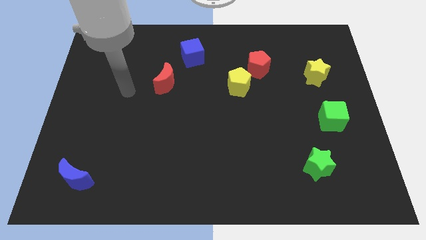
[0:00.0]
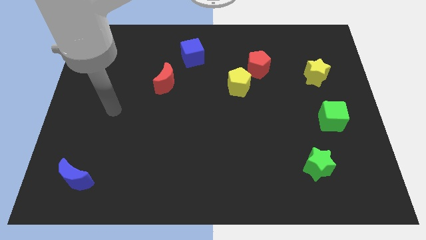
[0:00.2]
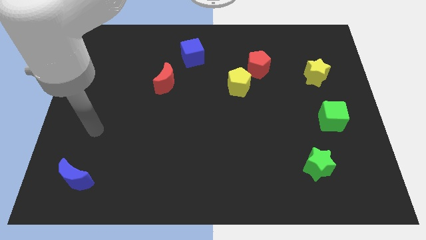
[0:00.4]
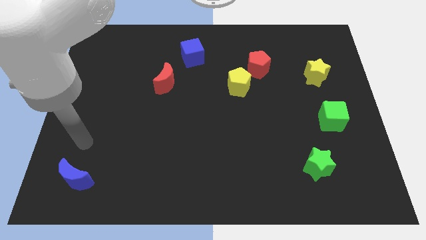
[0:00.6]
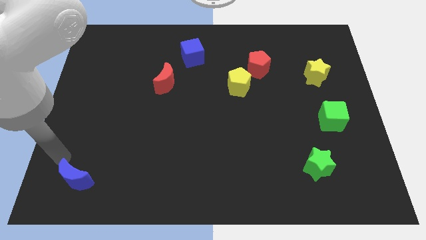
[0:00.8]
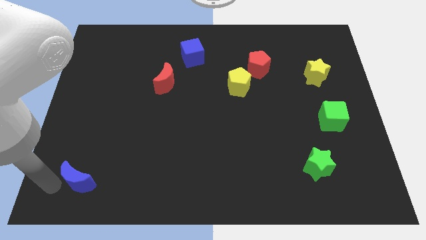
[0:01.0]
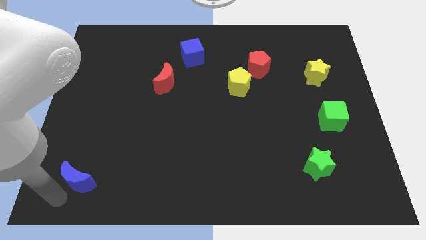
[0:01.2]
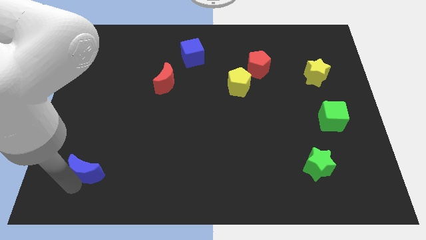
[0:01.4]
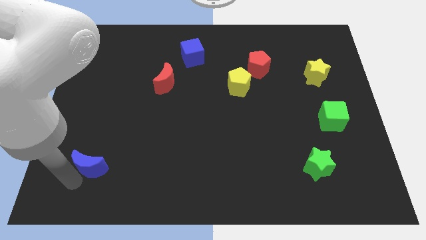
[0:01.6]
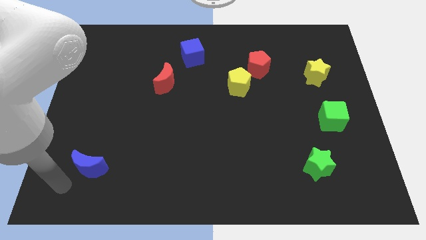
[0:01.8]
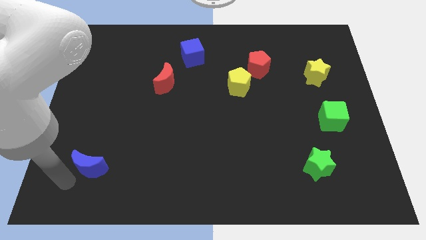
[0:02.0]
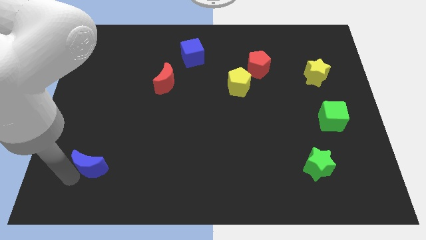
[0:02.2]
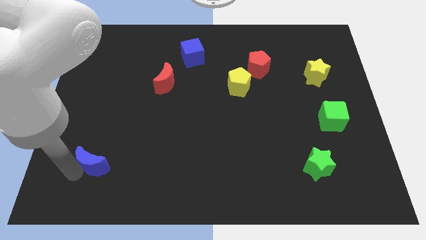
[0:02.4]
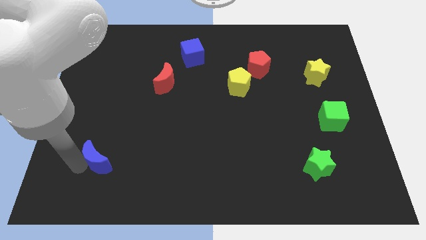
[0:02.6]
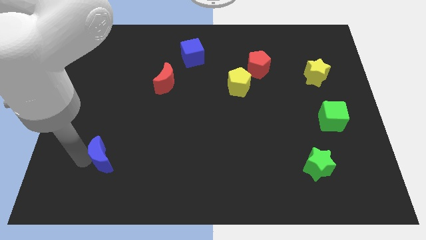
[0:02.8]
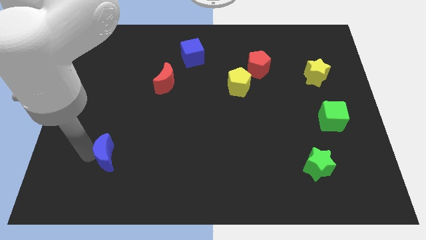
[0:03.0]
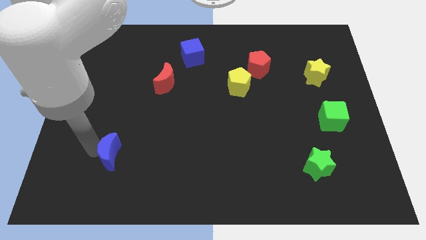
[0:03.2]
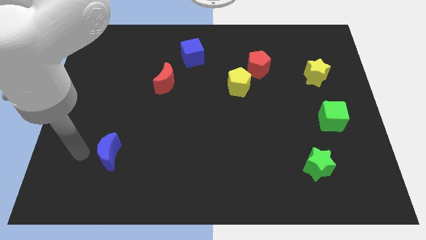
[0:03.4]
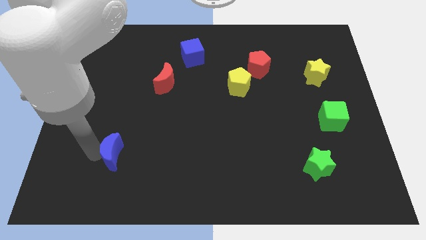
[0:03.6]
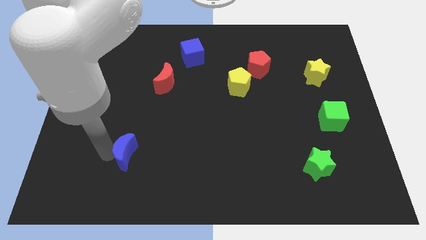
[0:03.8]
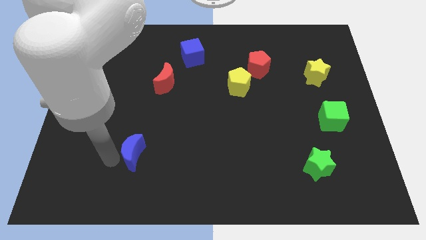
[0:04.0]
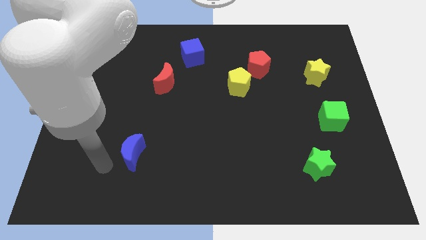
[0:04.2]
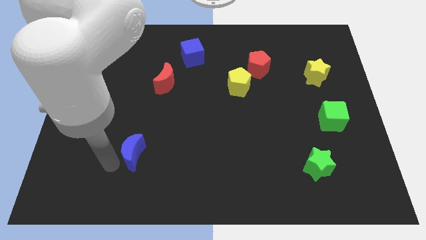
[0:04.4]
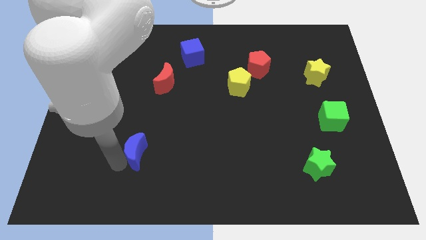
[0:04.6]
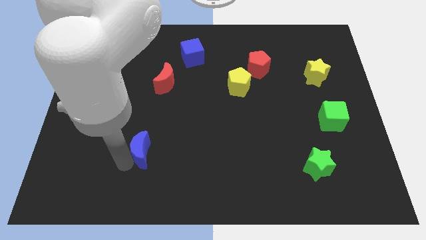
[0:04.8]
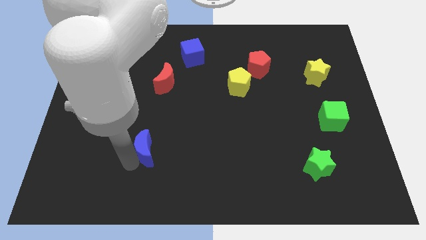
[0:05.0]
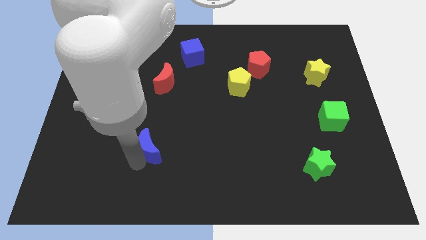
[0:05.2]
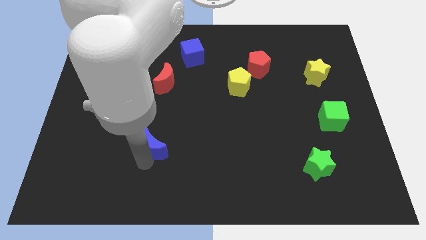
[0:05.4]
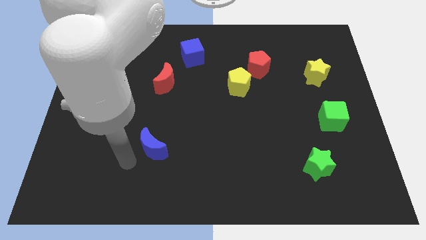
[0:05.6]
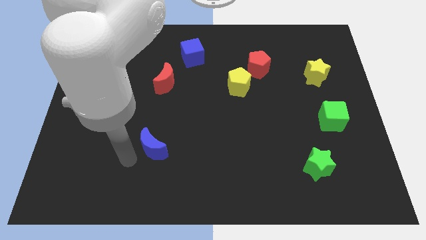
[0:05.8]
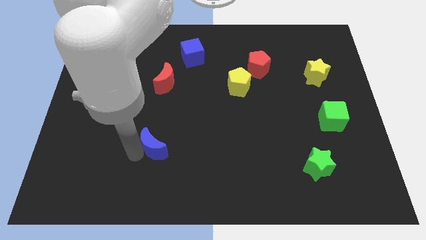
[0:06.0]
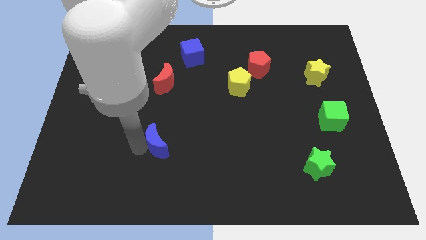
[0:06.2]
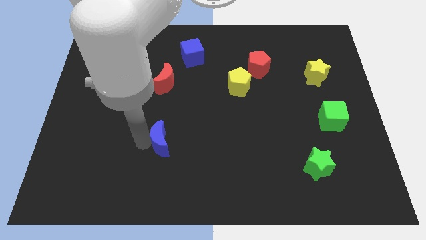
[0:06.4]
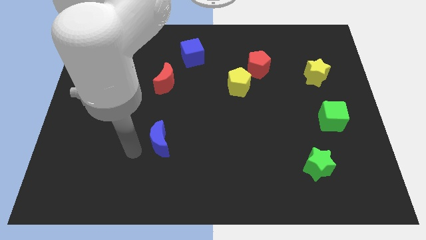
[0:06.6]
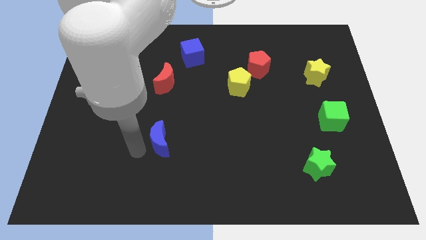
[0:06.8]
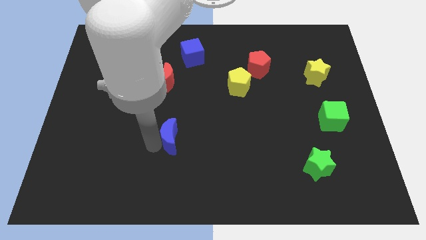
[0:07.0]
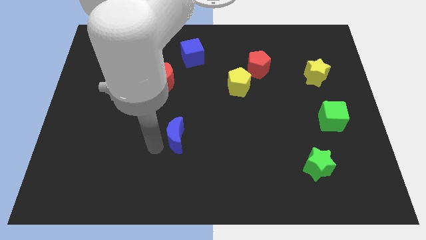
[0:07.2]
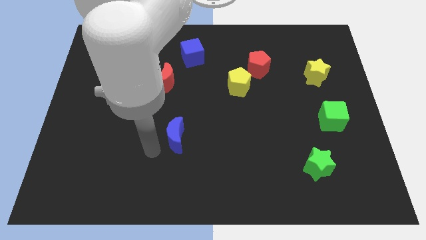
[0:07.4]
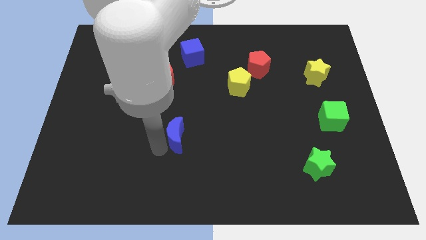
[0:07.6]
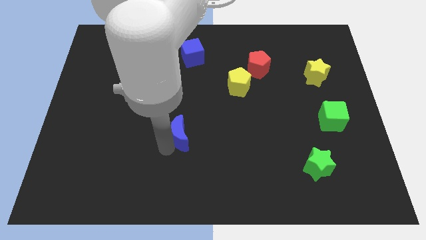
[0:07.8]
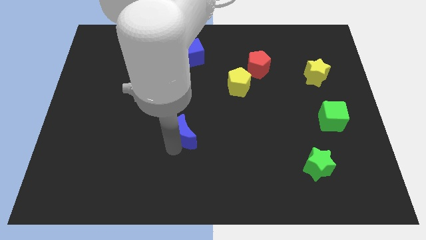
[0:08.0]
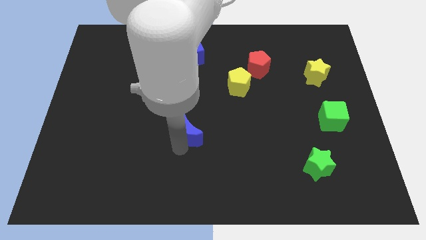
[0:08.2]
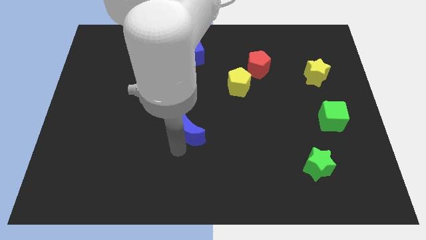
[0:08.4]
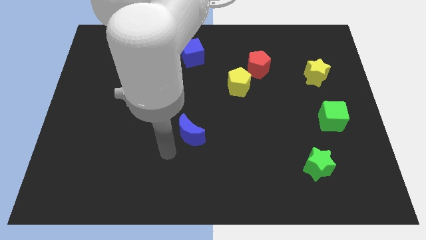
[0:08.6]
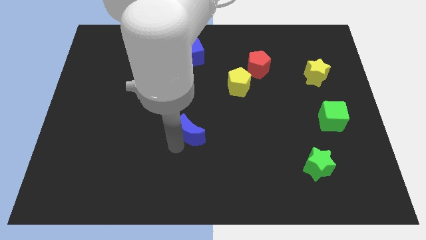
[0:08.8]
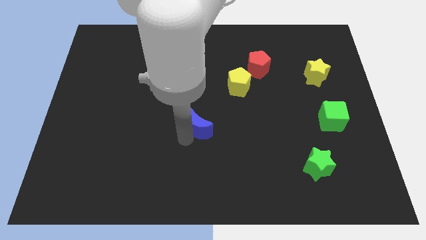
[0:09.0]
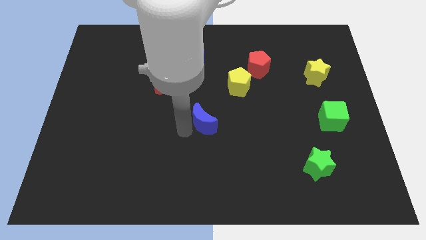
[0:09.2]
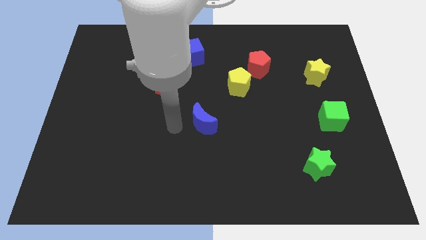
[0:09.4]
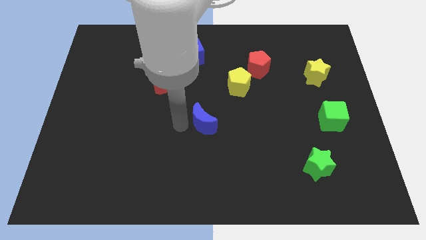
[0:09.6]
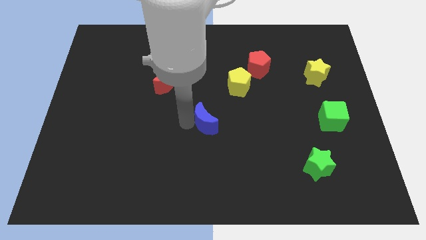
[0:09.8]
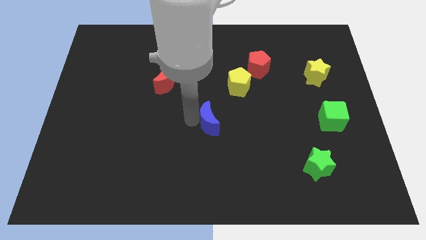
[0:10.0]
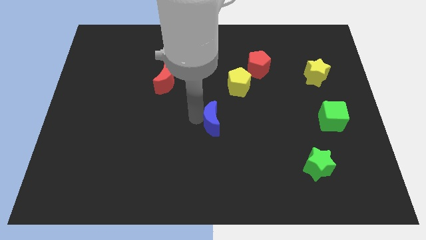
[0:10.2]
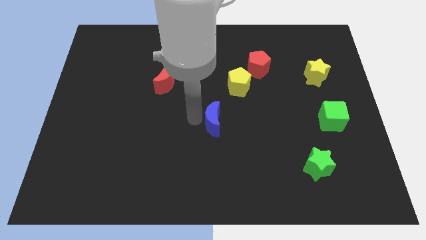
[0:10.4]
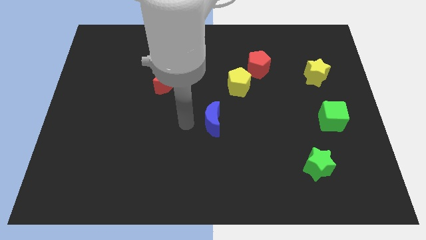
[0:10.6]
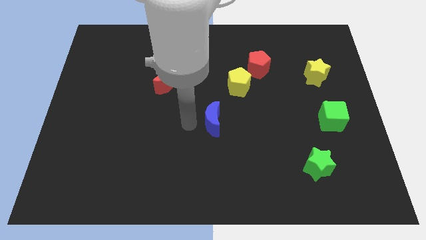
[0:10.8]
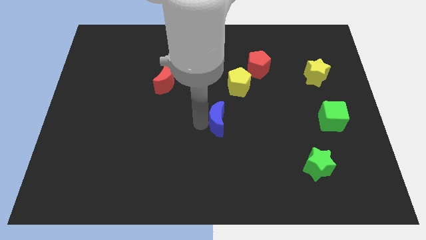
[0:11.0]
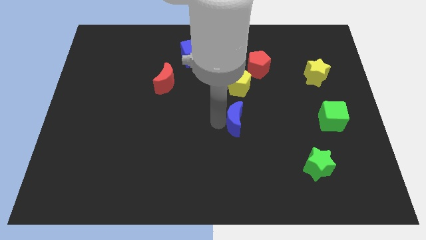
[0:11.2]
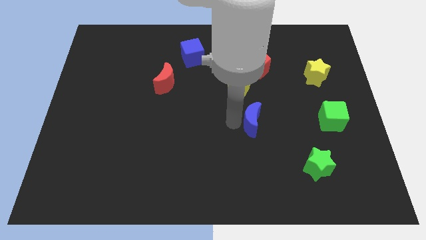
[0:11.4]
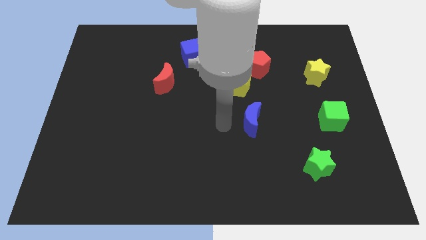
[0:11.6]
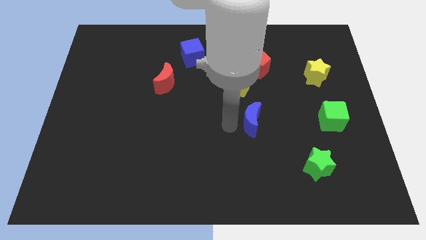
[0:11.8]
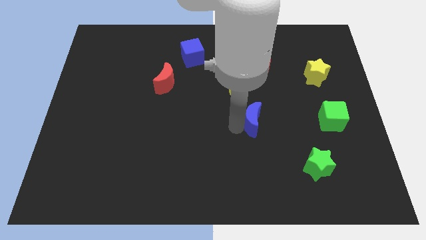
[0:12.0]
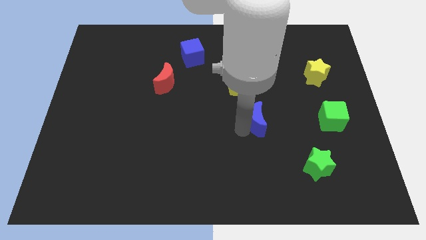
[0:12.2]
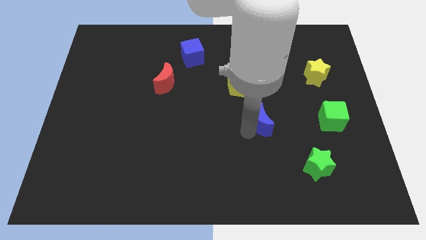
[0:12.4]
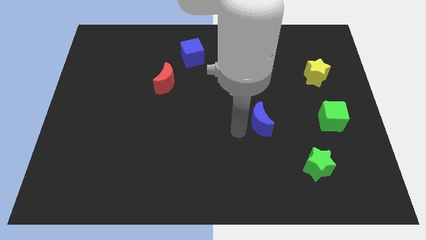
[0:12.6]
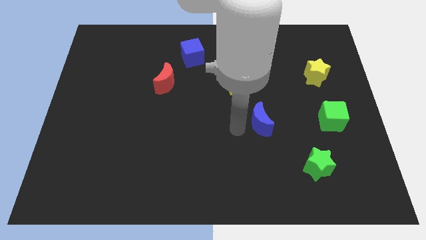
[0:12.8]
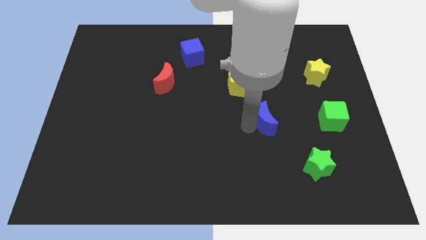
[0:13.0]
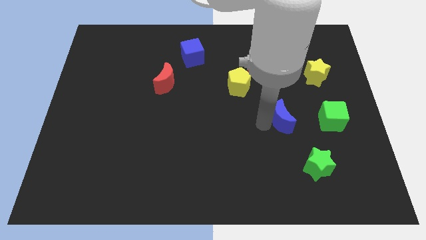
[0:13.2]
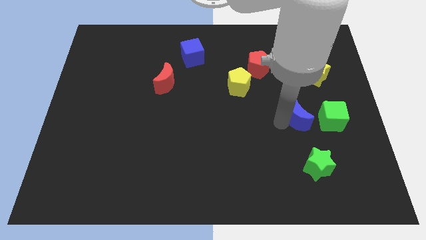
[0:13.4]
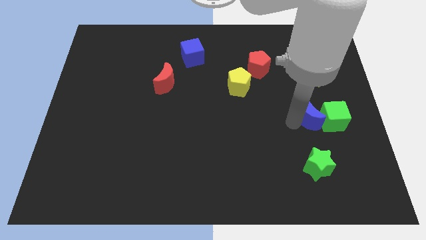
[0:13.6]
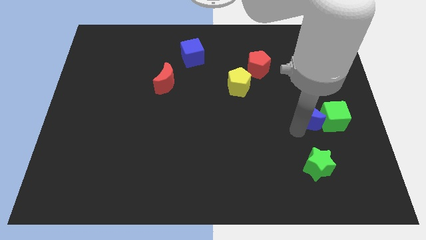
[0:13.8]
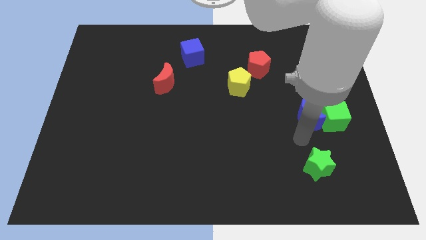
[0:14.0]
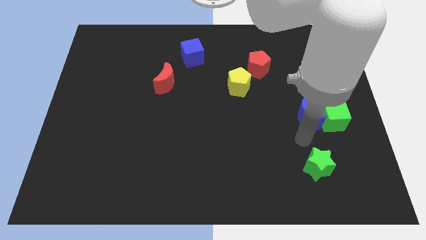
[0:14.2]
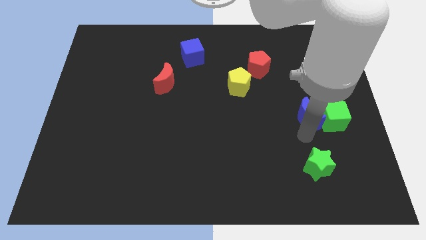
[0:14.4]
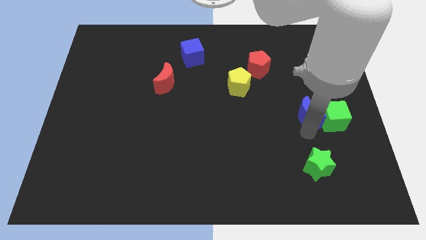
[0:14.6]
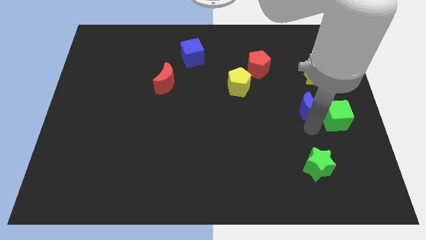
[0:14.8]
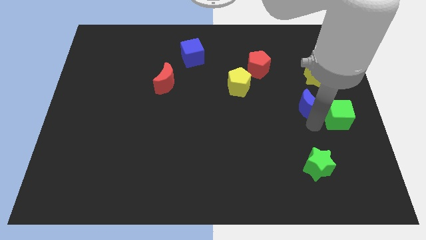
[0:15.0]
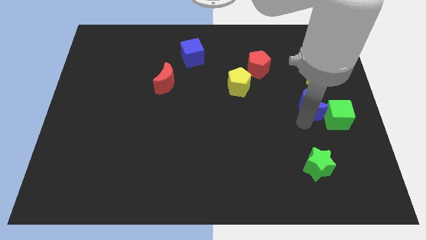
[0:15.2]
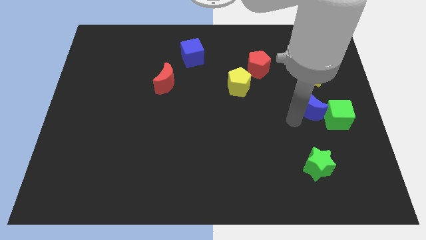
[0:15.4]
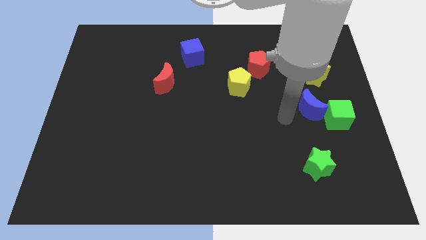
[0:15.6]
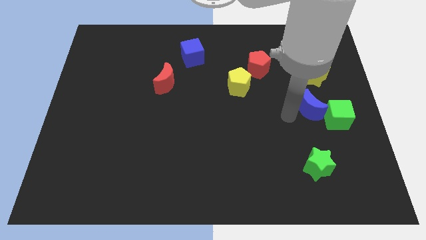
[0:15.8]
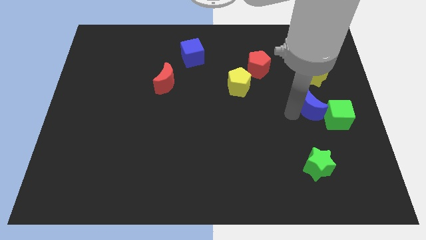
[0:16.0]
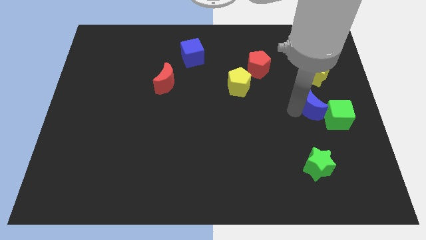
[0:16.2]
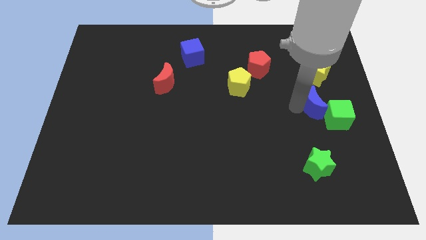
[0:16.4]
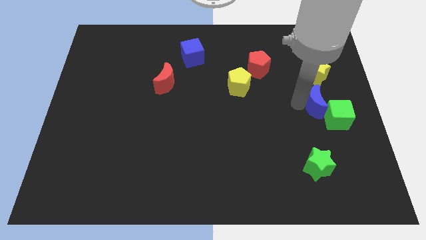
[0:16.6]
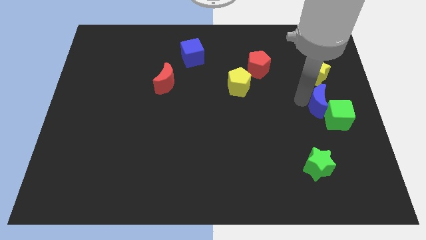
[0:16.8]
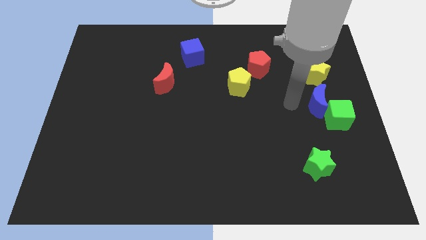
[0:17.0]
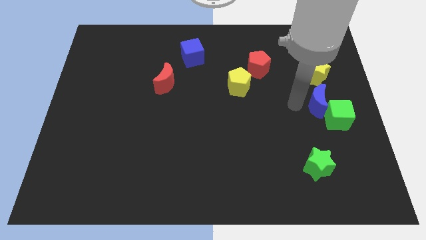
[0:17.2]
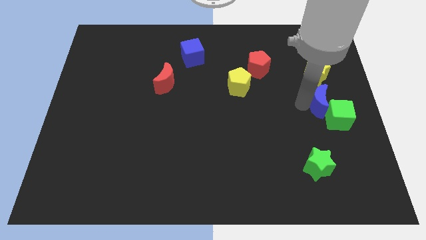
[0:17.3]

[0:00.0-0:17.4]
move the blue moon to the center right
